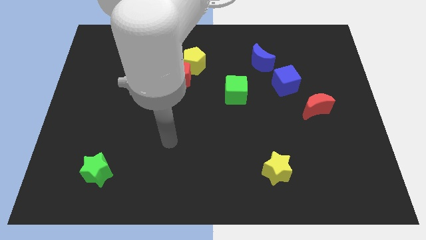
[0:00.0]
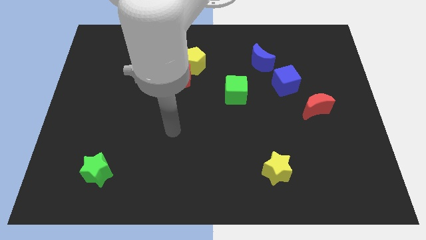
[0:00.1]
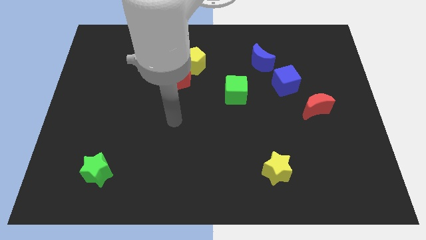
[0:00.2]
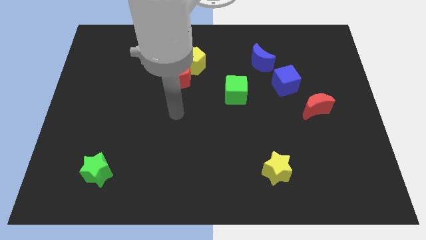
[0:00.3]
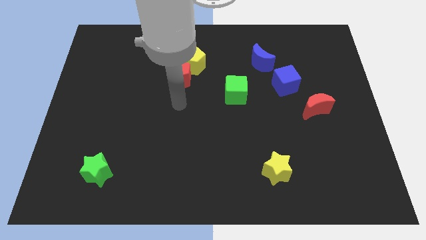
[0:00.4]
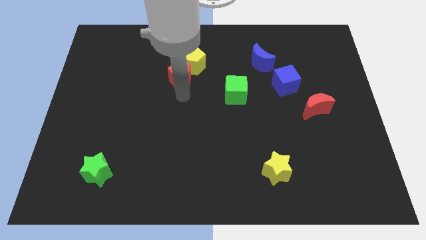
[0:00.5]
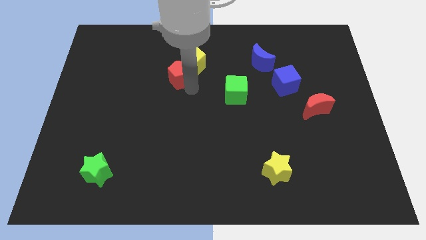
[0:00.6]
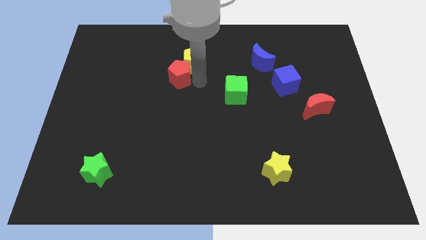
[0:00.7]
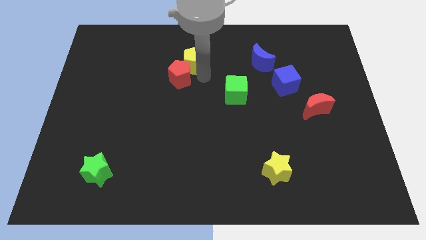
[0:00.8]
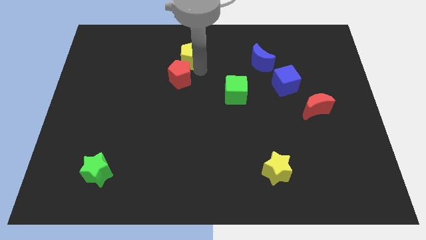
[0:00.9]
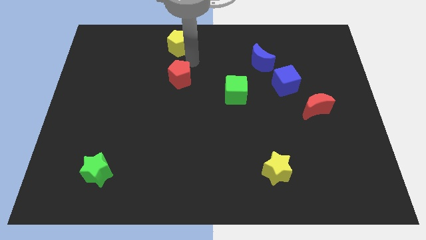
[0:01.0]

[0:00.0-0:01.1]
pull the red pentagon apart from the yellow pentagon

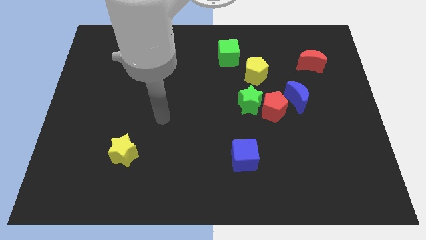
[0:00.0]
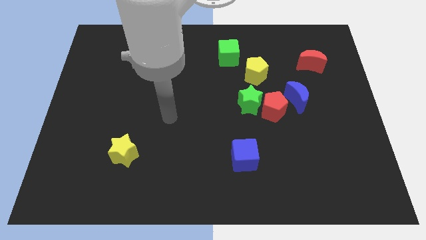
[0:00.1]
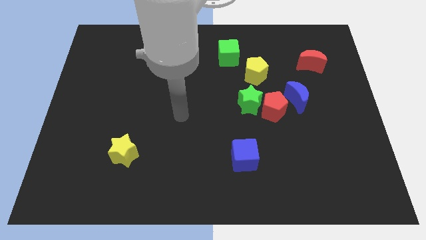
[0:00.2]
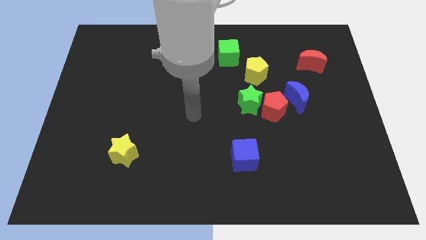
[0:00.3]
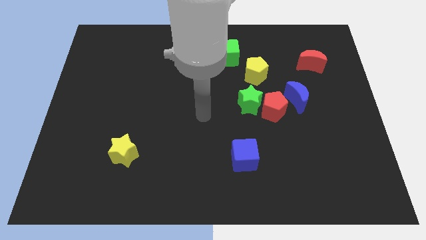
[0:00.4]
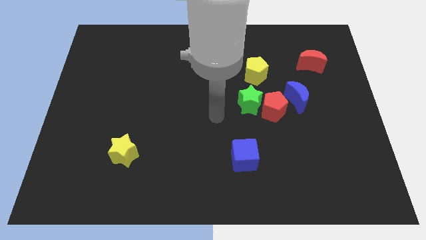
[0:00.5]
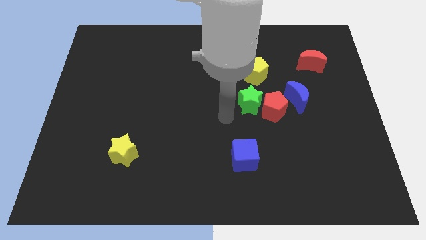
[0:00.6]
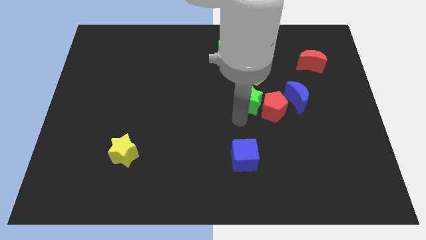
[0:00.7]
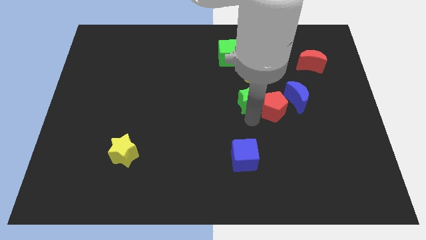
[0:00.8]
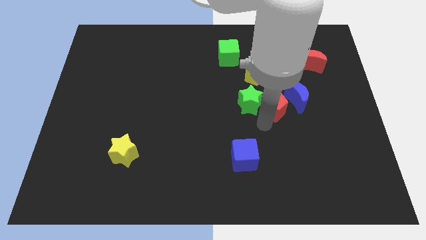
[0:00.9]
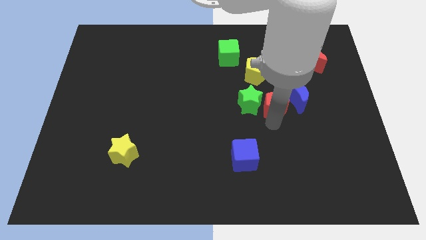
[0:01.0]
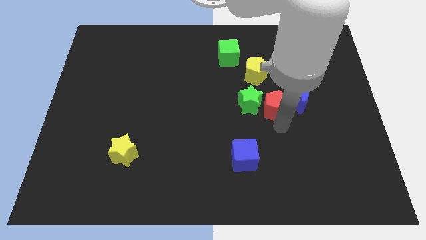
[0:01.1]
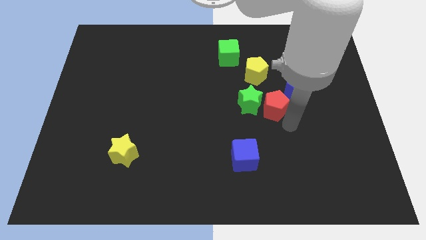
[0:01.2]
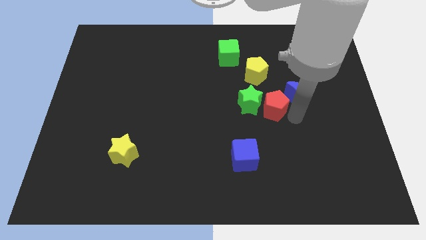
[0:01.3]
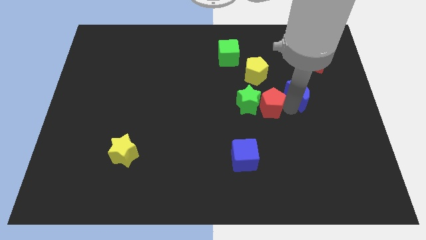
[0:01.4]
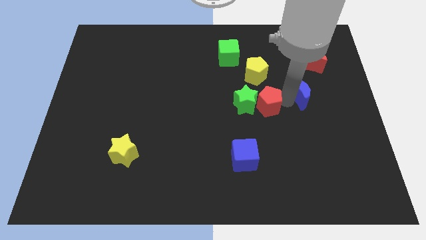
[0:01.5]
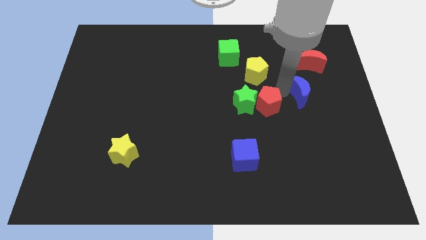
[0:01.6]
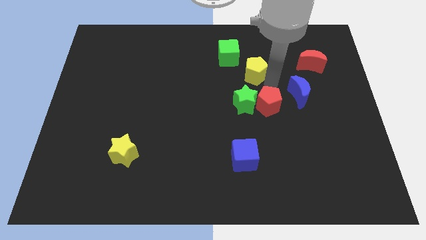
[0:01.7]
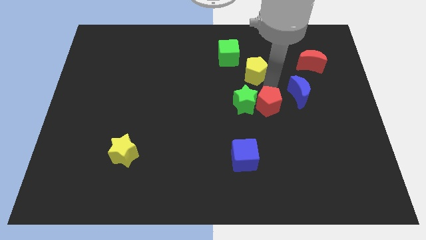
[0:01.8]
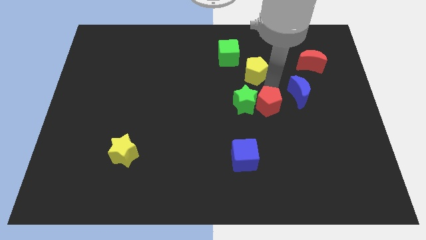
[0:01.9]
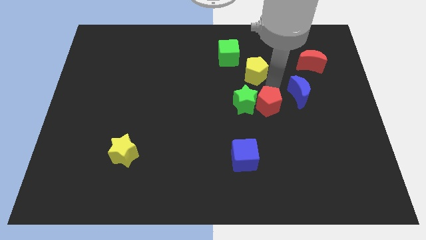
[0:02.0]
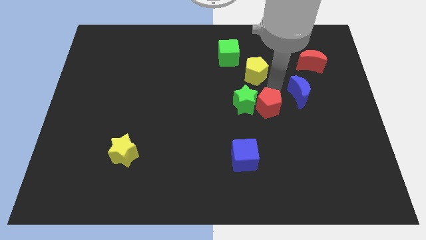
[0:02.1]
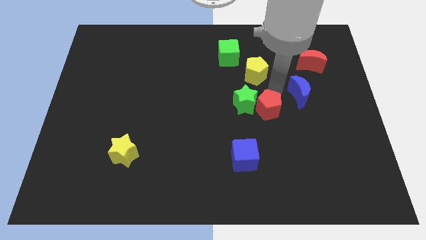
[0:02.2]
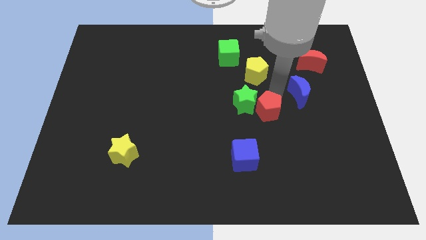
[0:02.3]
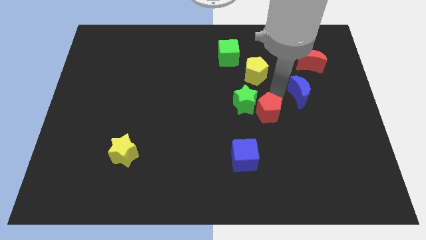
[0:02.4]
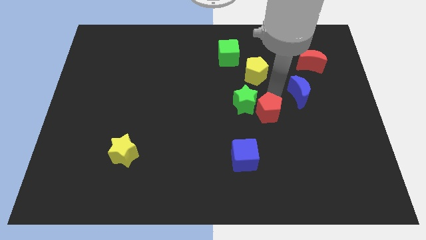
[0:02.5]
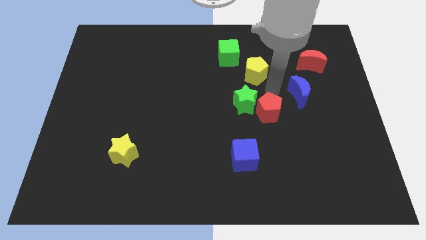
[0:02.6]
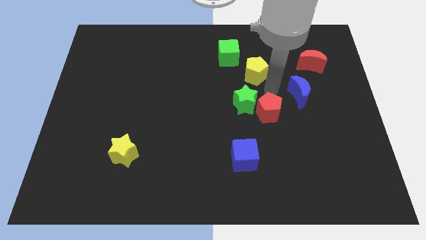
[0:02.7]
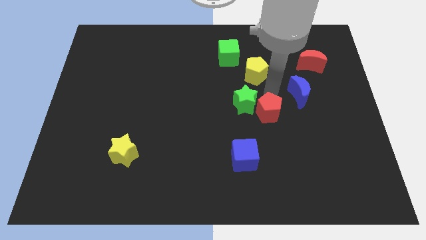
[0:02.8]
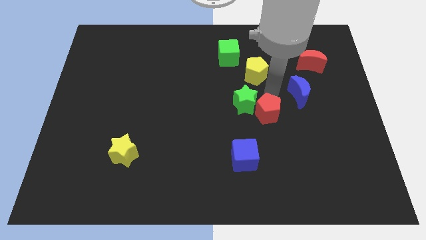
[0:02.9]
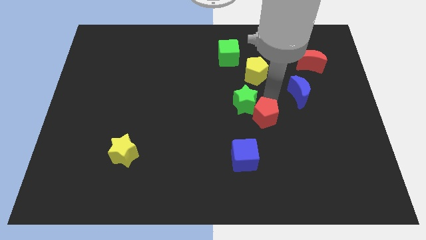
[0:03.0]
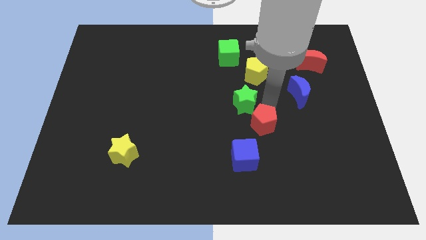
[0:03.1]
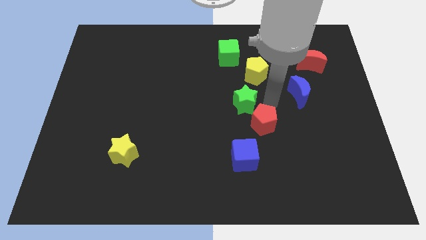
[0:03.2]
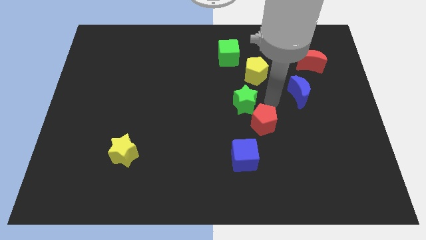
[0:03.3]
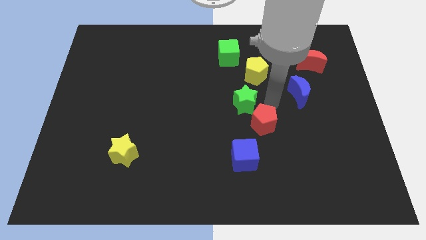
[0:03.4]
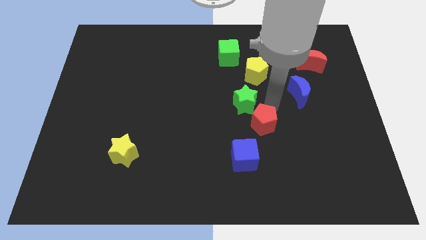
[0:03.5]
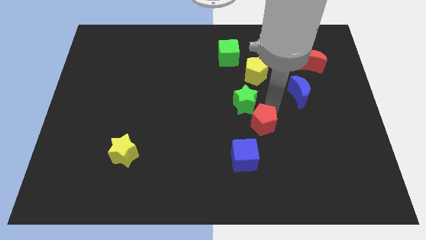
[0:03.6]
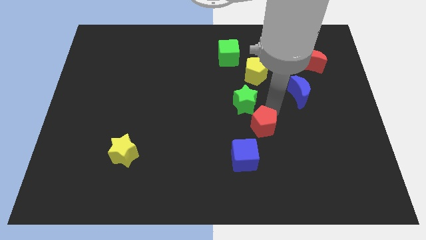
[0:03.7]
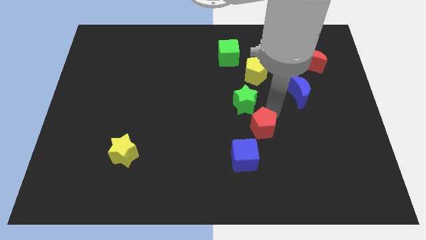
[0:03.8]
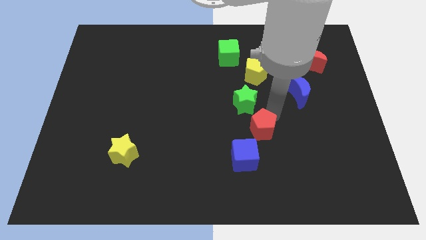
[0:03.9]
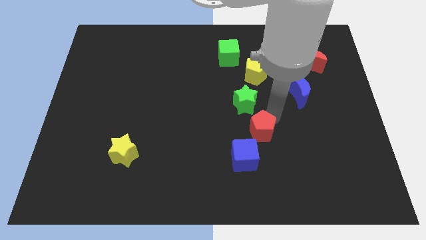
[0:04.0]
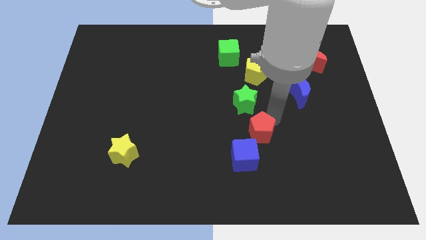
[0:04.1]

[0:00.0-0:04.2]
separate the red pentagon from the green star and blue moon

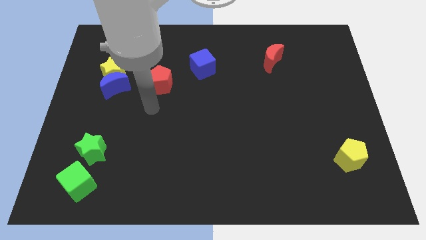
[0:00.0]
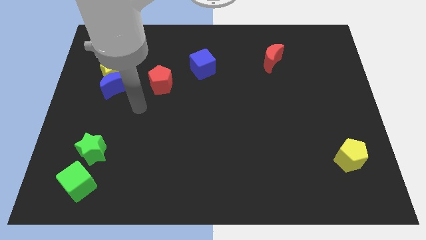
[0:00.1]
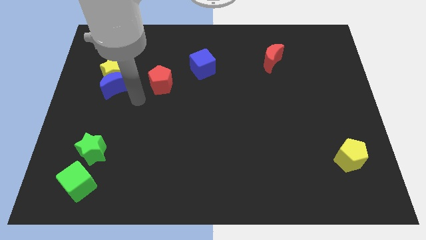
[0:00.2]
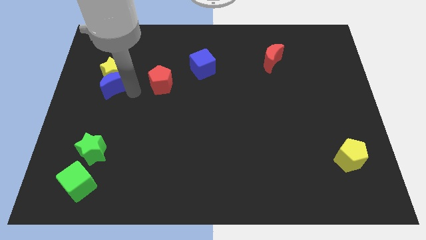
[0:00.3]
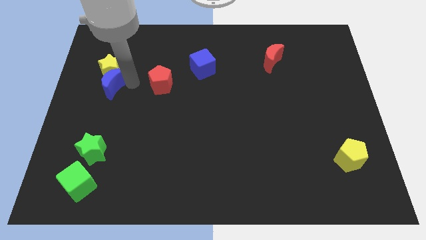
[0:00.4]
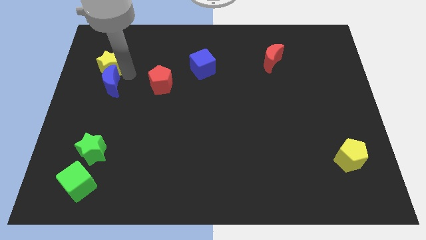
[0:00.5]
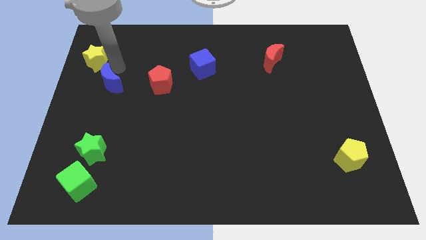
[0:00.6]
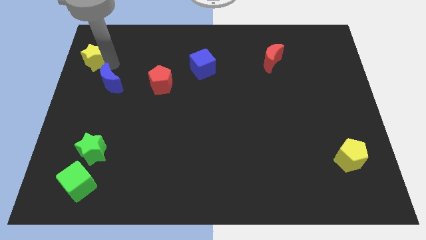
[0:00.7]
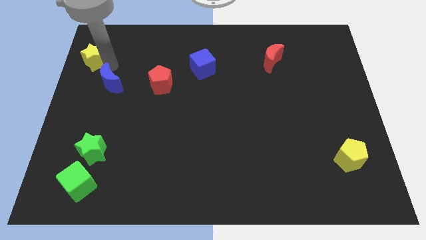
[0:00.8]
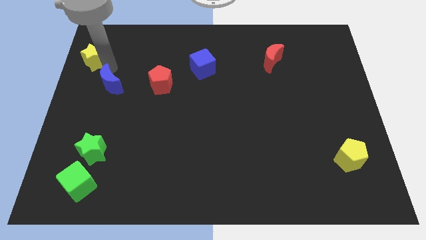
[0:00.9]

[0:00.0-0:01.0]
pull the blue moon apart from the yellow star

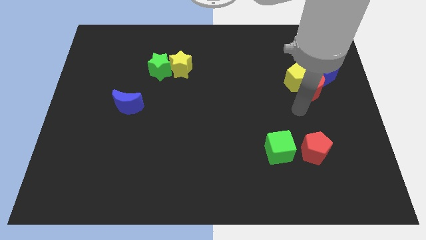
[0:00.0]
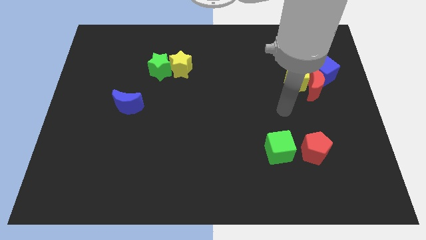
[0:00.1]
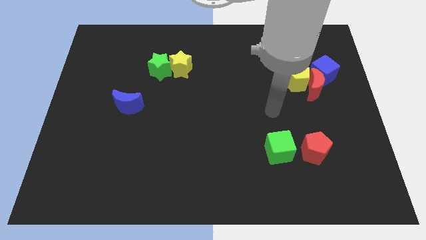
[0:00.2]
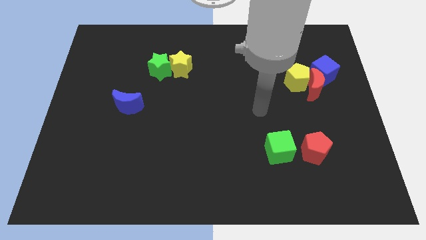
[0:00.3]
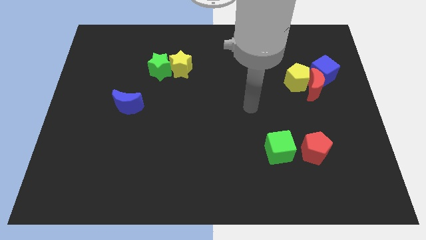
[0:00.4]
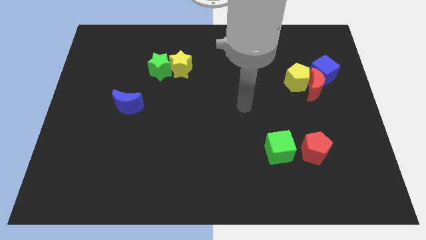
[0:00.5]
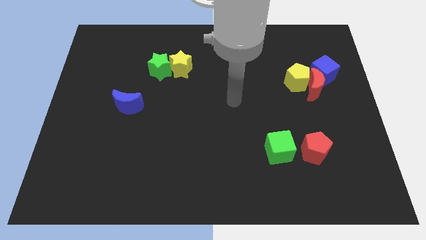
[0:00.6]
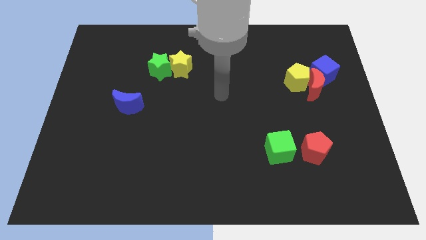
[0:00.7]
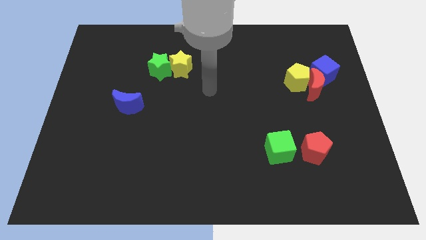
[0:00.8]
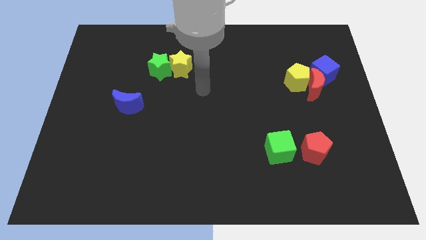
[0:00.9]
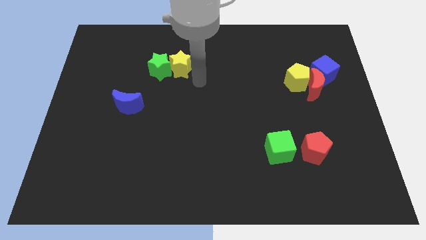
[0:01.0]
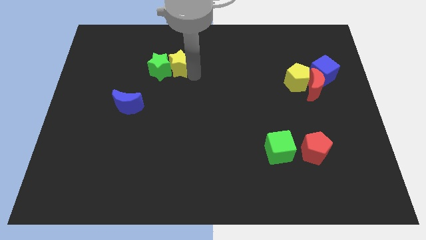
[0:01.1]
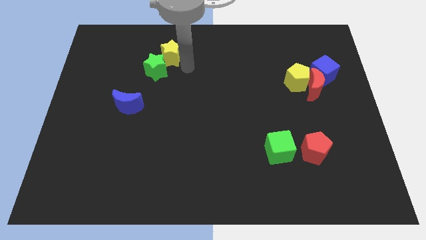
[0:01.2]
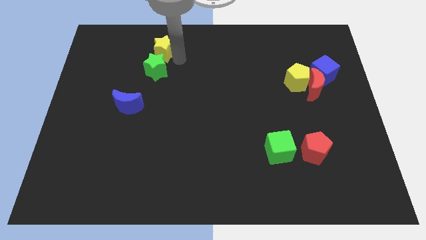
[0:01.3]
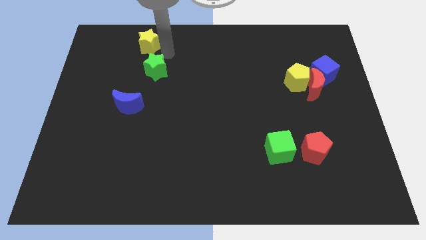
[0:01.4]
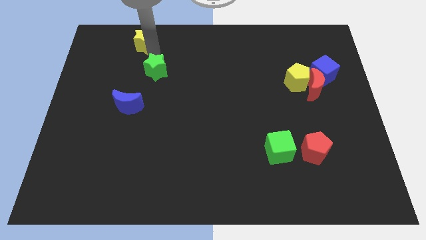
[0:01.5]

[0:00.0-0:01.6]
separate the green star from the yellow star

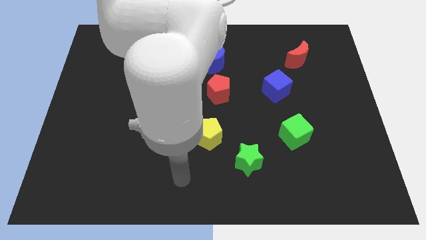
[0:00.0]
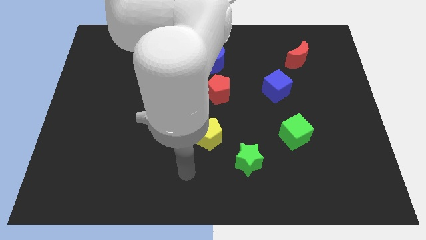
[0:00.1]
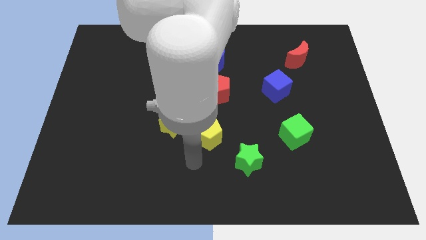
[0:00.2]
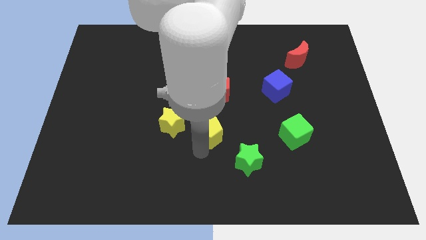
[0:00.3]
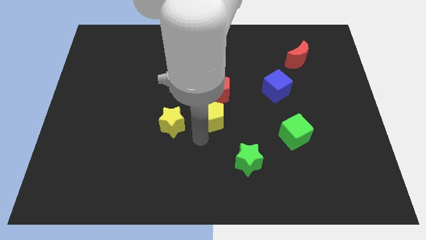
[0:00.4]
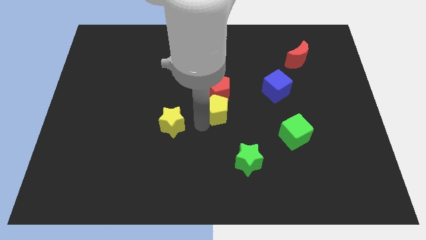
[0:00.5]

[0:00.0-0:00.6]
move the yellow star away from the yellow pentagon

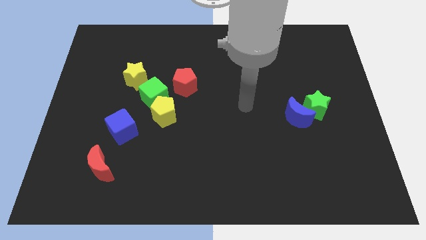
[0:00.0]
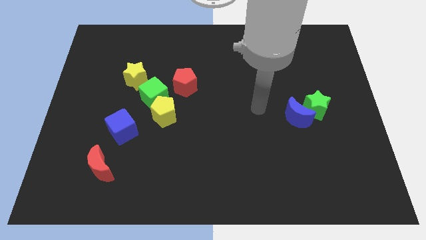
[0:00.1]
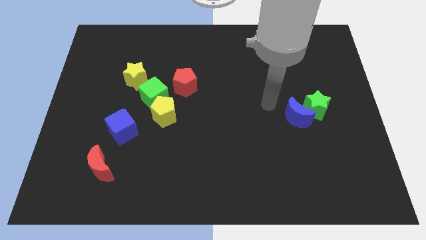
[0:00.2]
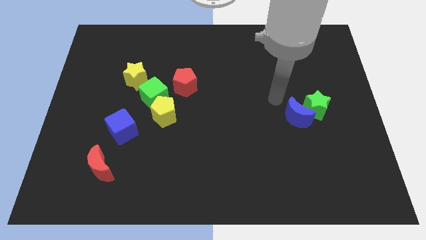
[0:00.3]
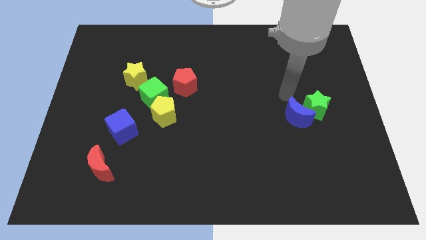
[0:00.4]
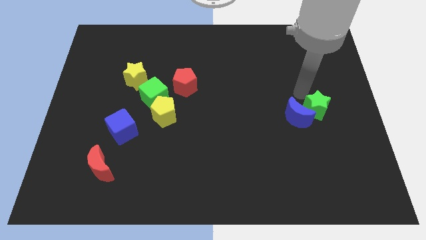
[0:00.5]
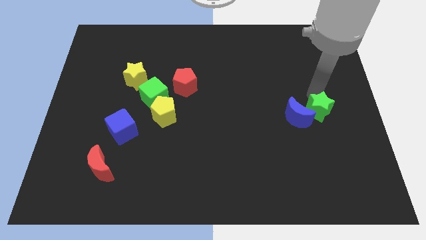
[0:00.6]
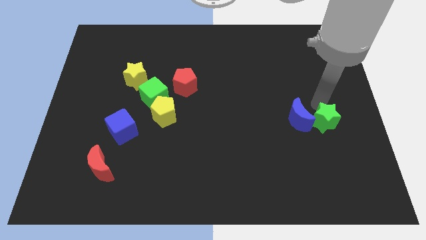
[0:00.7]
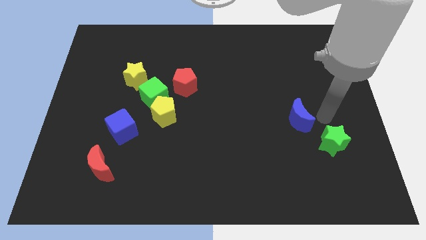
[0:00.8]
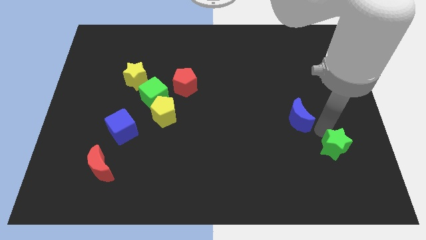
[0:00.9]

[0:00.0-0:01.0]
separate the blue moon from the green star
